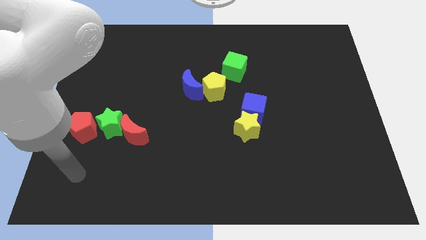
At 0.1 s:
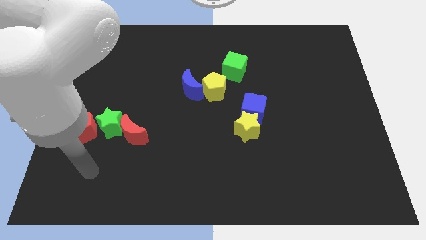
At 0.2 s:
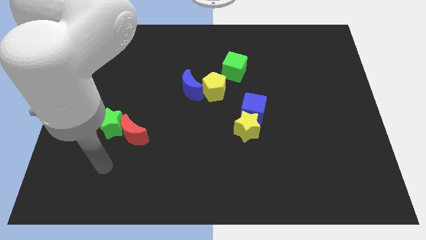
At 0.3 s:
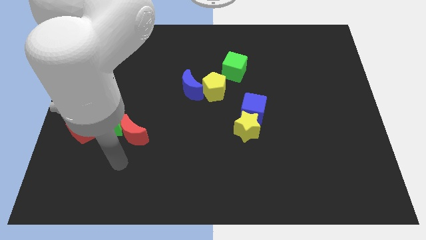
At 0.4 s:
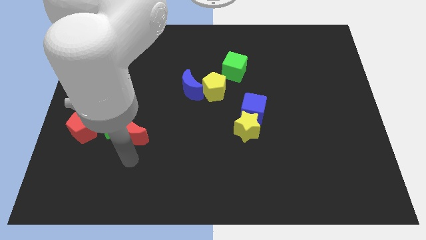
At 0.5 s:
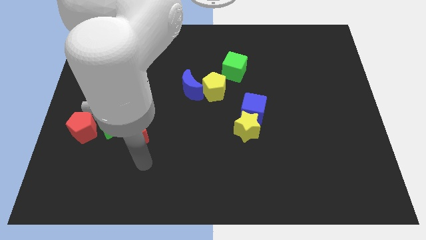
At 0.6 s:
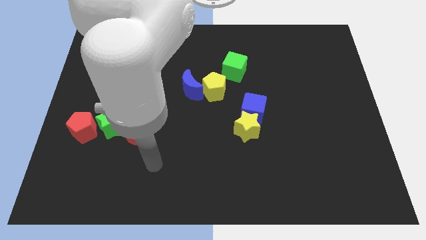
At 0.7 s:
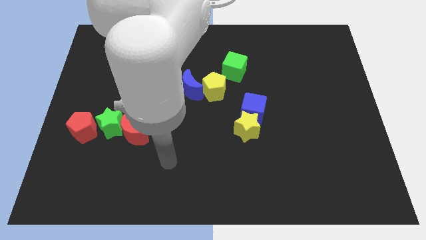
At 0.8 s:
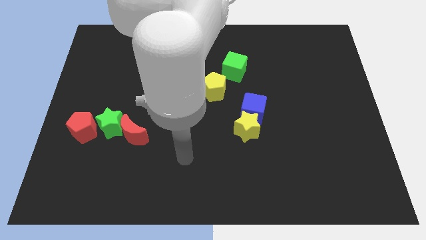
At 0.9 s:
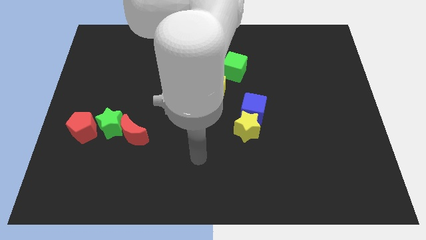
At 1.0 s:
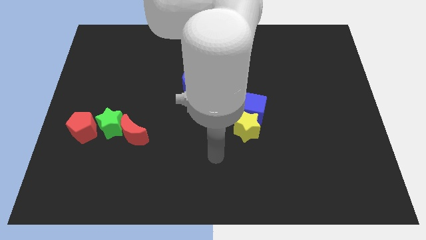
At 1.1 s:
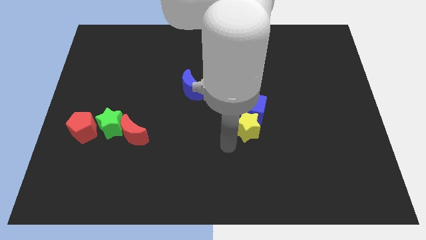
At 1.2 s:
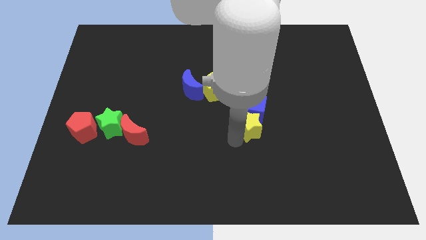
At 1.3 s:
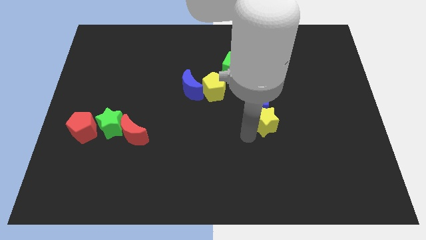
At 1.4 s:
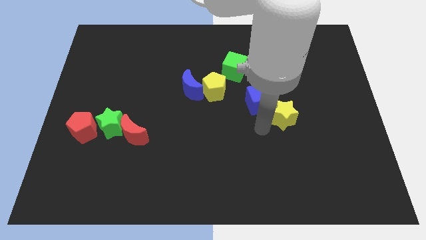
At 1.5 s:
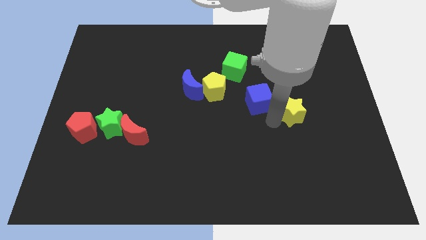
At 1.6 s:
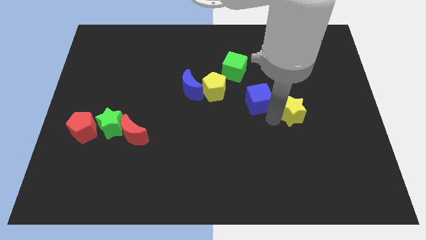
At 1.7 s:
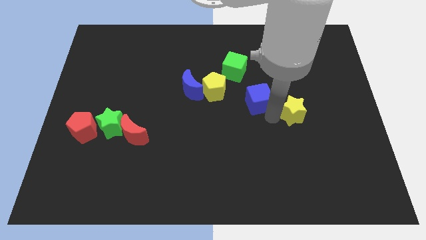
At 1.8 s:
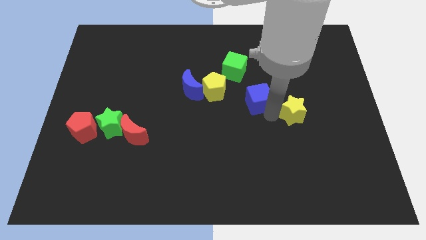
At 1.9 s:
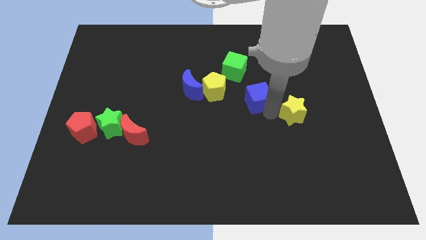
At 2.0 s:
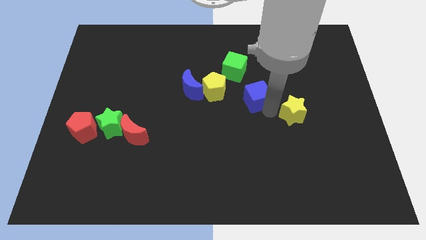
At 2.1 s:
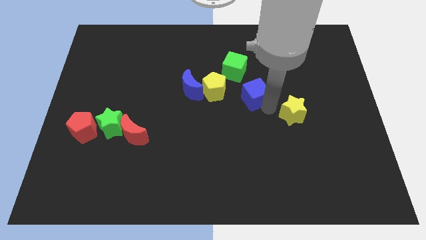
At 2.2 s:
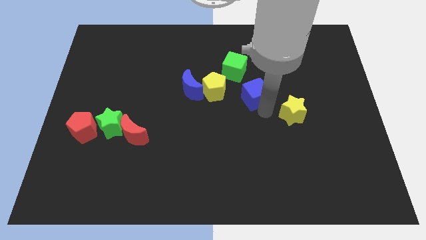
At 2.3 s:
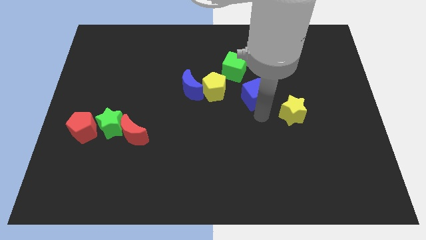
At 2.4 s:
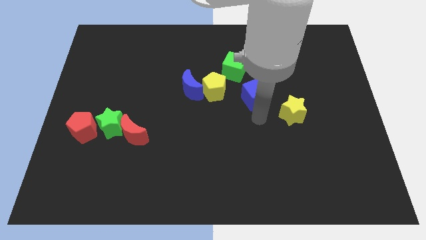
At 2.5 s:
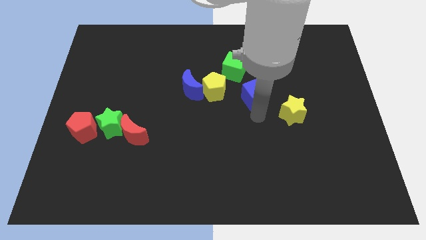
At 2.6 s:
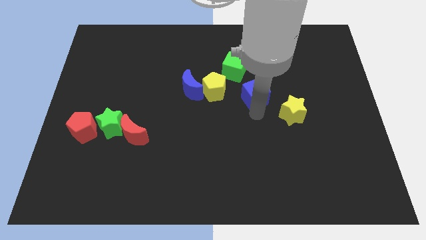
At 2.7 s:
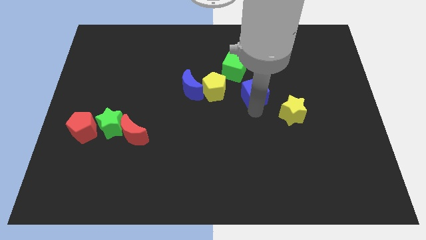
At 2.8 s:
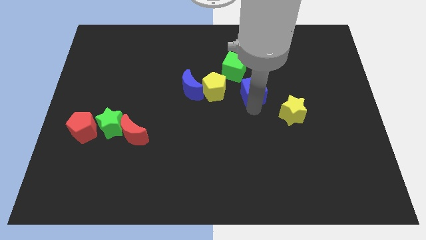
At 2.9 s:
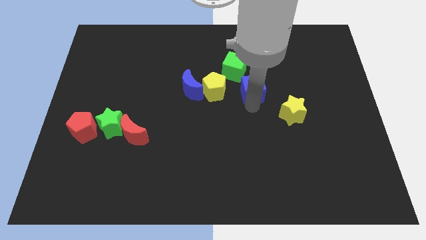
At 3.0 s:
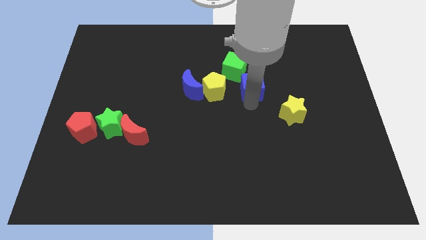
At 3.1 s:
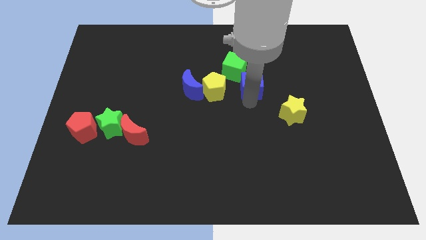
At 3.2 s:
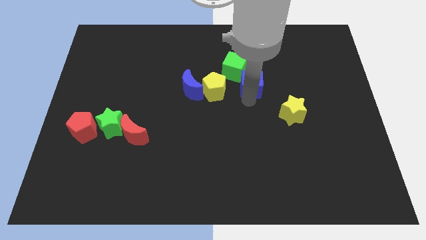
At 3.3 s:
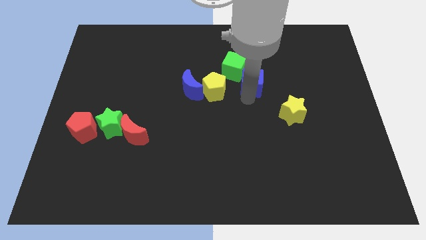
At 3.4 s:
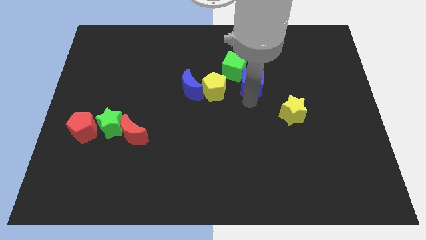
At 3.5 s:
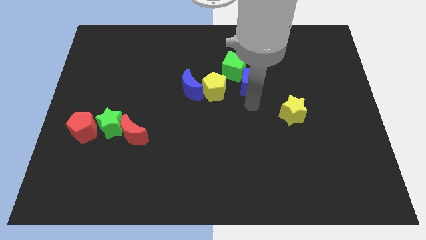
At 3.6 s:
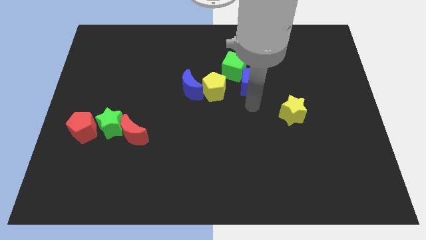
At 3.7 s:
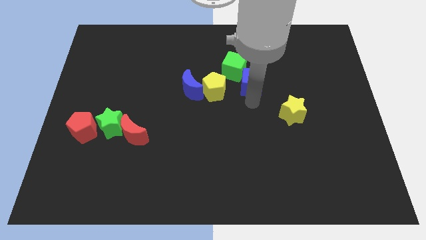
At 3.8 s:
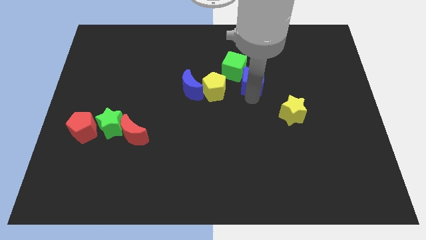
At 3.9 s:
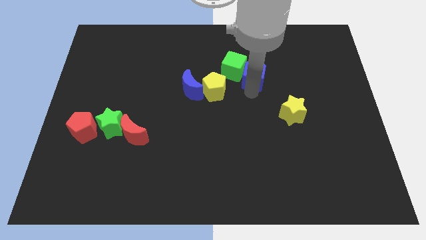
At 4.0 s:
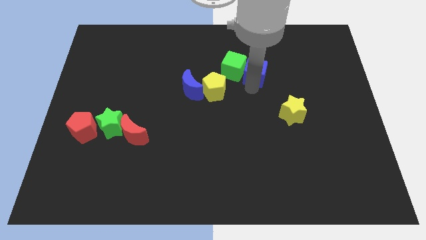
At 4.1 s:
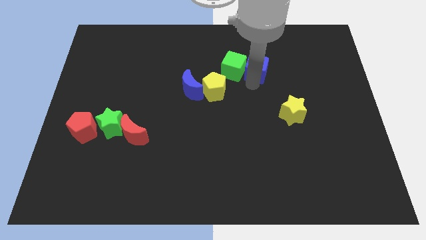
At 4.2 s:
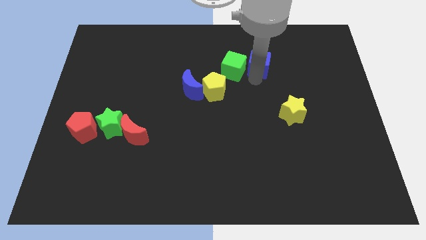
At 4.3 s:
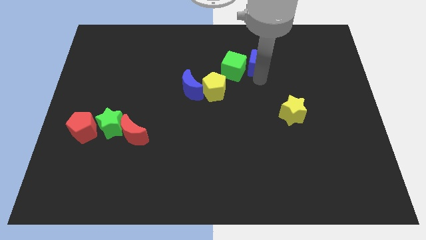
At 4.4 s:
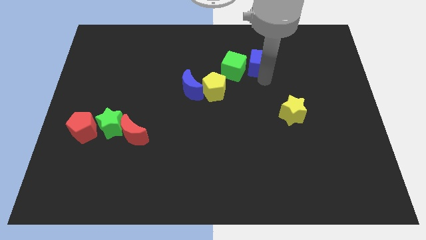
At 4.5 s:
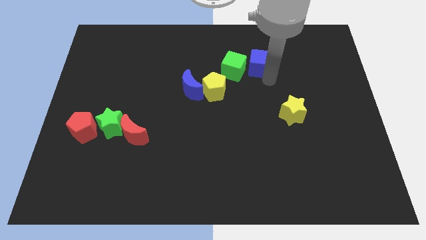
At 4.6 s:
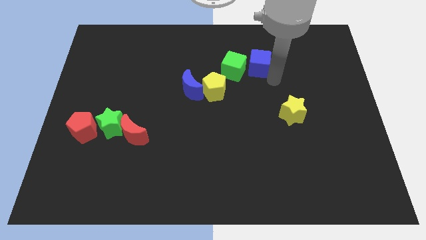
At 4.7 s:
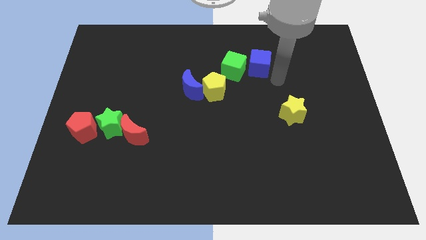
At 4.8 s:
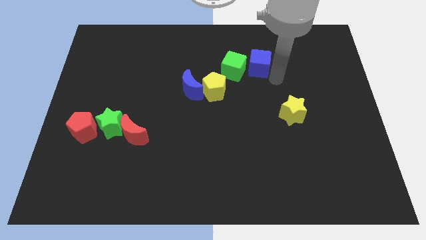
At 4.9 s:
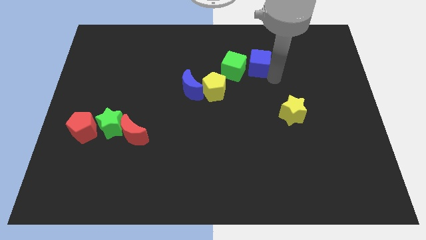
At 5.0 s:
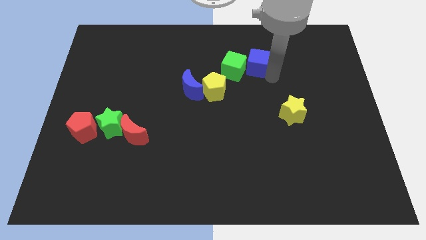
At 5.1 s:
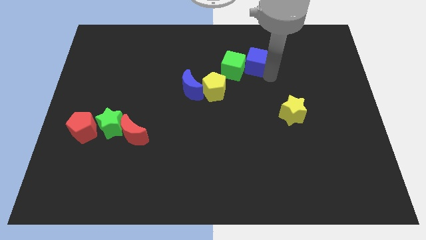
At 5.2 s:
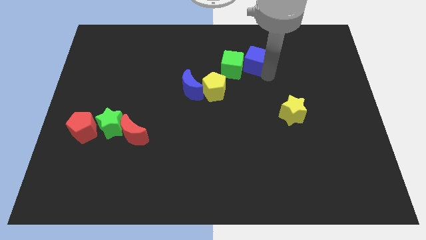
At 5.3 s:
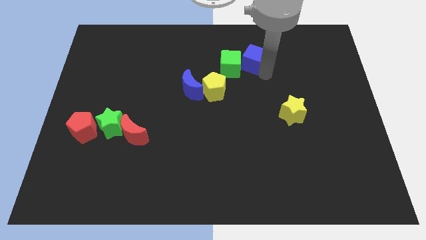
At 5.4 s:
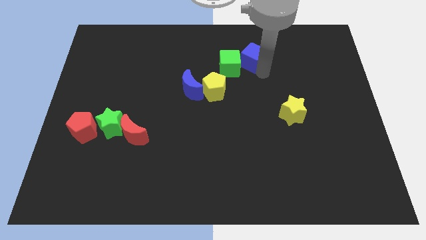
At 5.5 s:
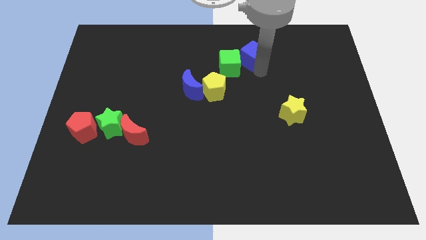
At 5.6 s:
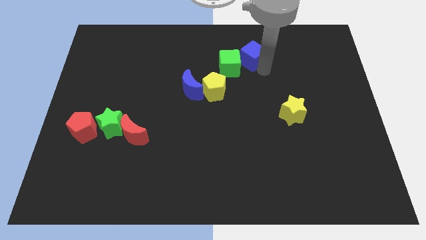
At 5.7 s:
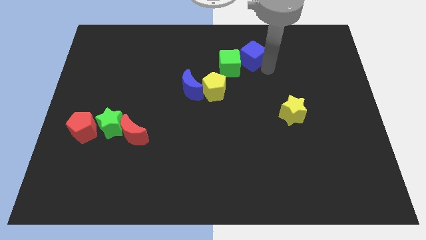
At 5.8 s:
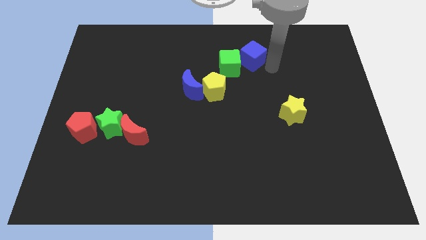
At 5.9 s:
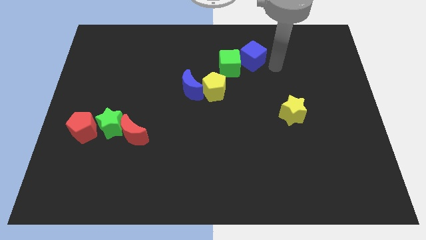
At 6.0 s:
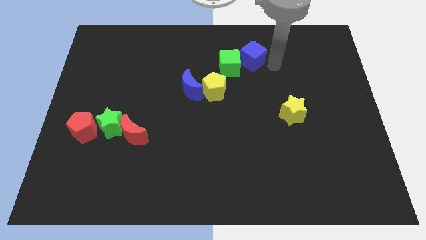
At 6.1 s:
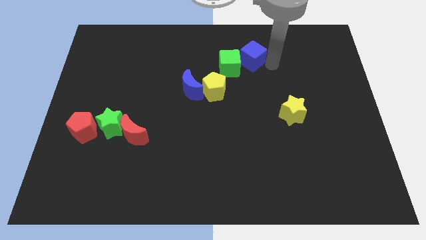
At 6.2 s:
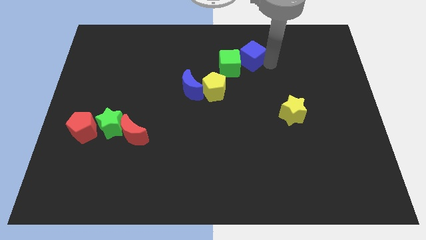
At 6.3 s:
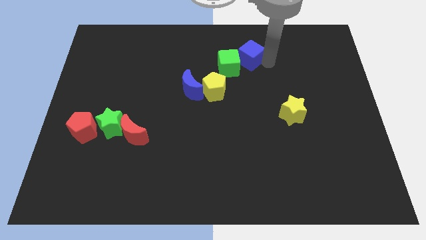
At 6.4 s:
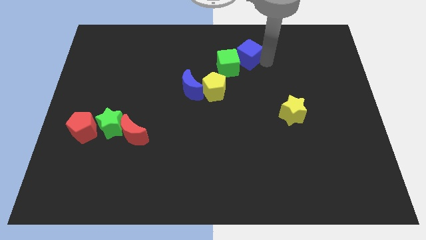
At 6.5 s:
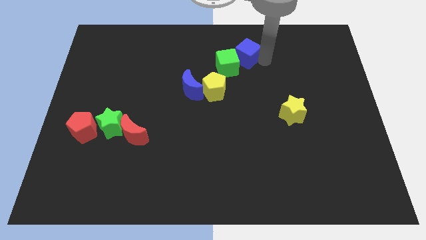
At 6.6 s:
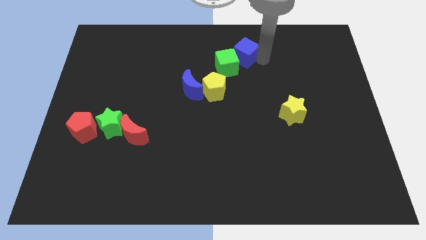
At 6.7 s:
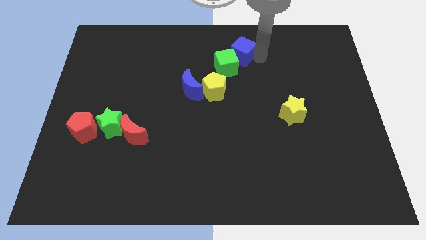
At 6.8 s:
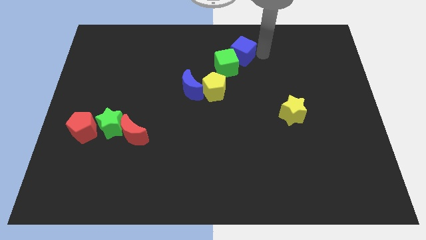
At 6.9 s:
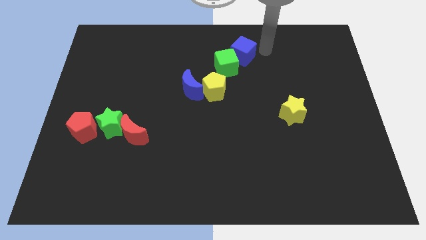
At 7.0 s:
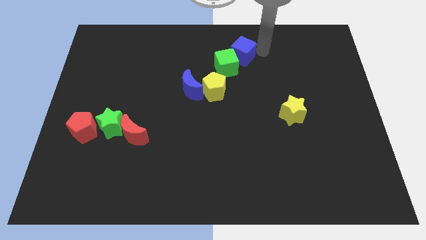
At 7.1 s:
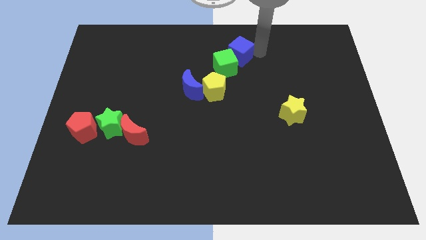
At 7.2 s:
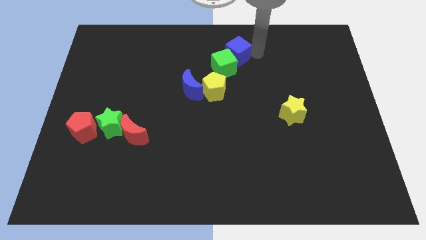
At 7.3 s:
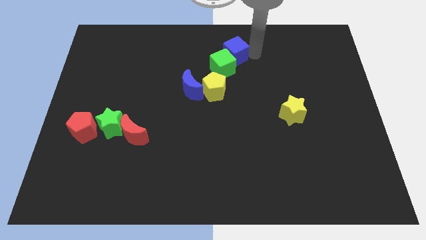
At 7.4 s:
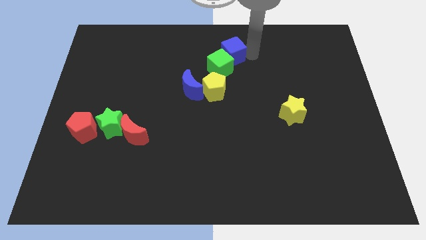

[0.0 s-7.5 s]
slide the blue cube above the yellow pentagon

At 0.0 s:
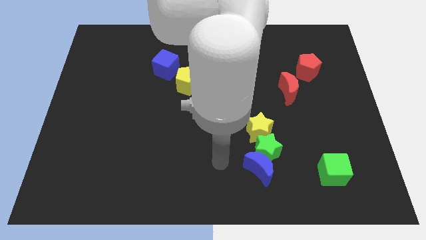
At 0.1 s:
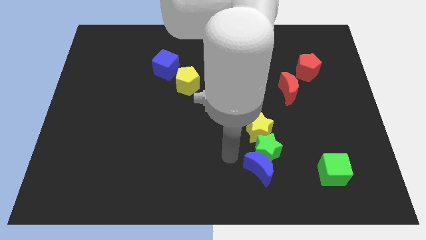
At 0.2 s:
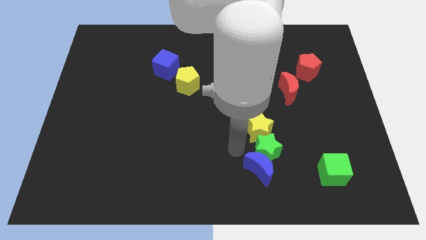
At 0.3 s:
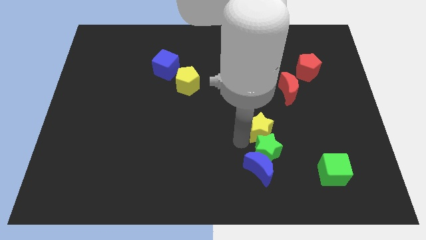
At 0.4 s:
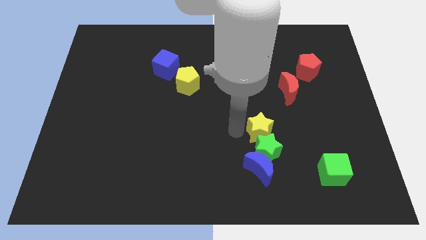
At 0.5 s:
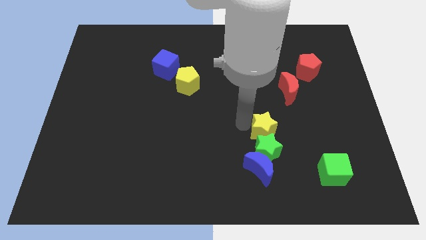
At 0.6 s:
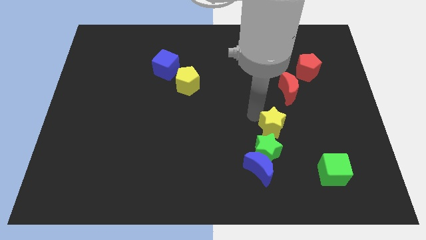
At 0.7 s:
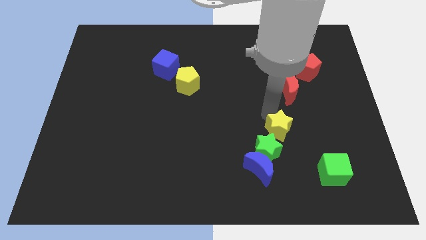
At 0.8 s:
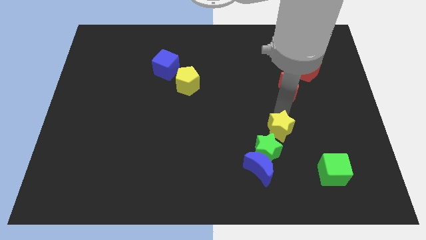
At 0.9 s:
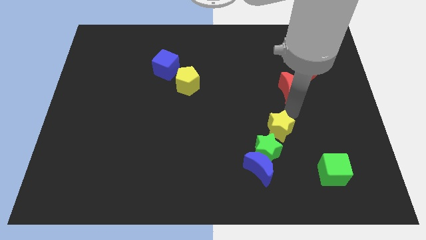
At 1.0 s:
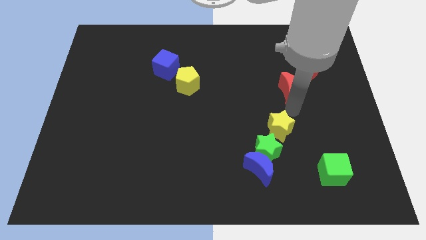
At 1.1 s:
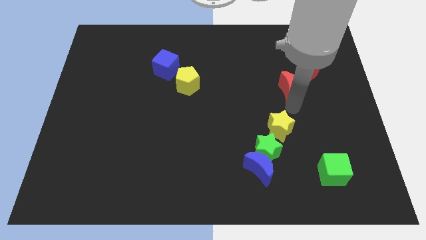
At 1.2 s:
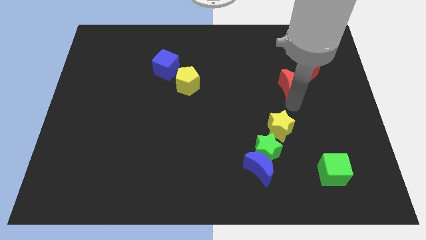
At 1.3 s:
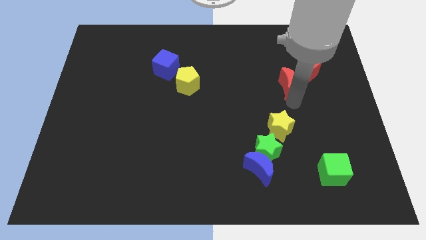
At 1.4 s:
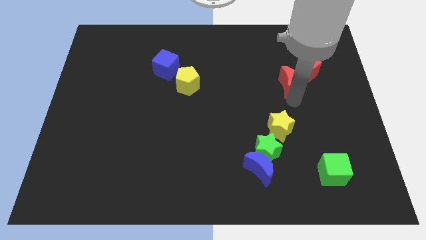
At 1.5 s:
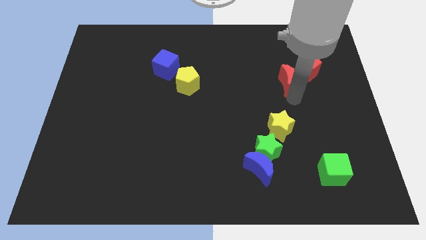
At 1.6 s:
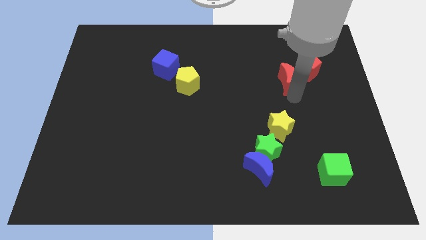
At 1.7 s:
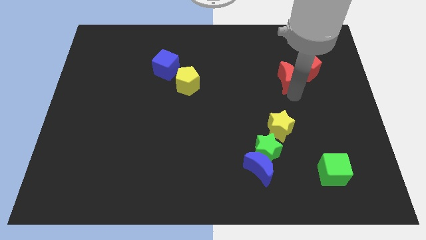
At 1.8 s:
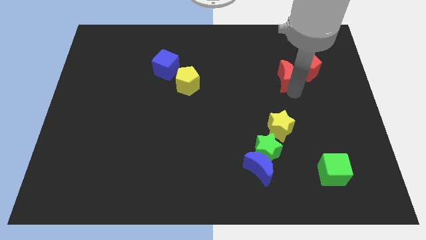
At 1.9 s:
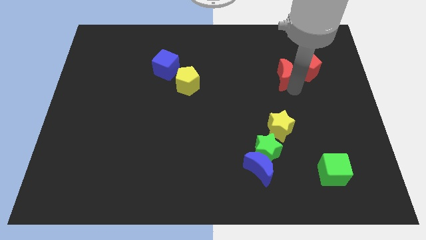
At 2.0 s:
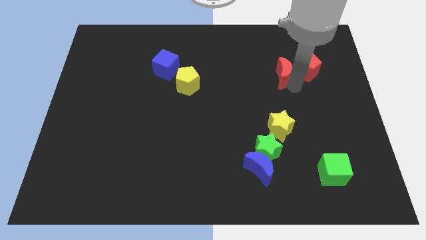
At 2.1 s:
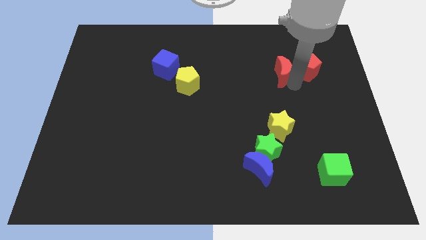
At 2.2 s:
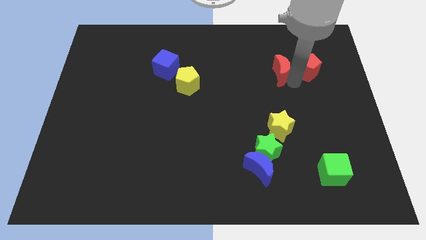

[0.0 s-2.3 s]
put the red moon to the top left side of the red pentagon
